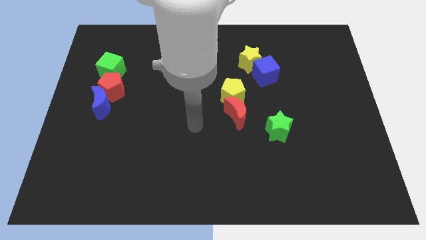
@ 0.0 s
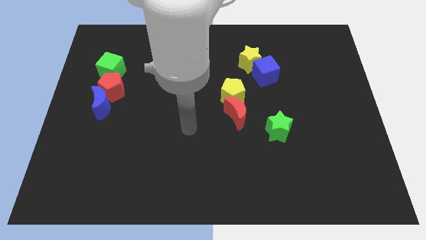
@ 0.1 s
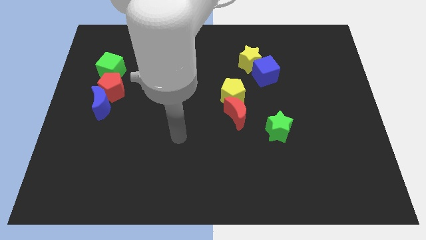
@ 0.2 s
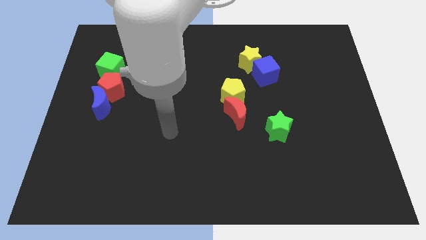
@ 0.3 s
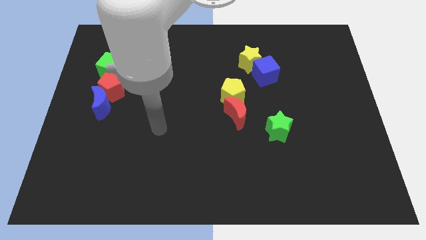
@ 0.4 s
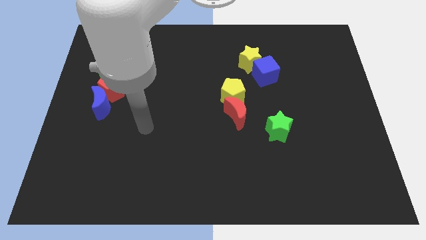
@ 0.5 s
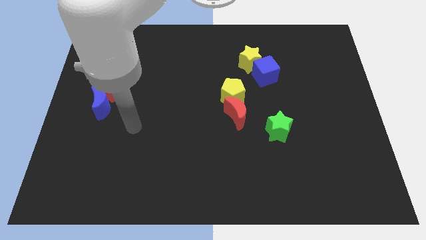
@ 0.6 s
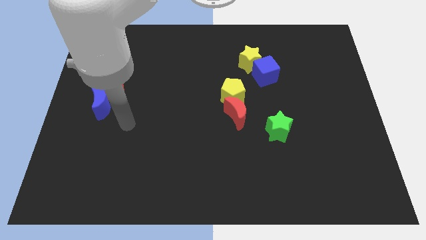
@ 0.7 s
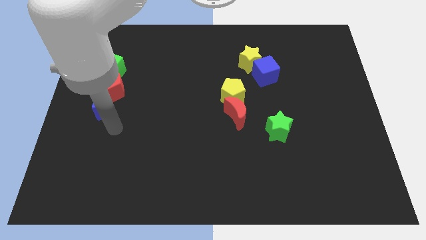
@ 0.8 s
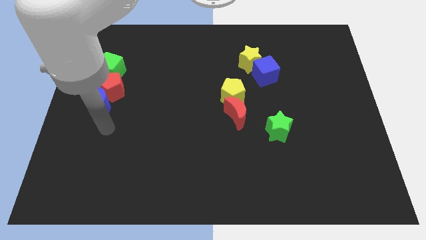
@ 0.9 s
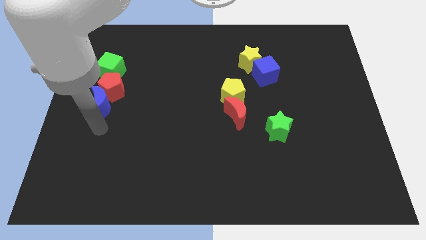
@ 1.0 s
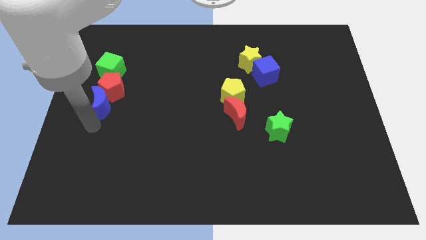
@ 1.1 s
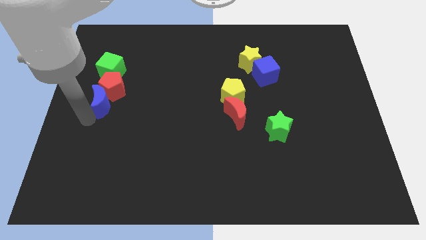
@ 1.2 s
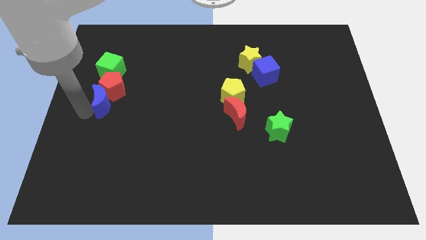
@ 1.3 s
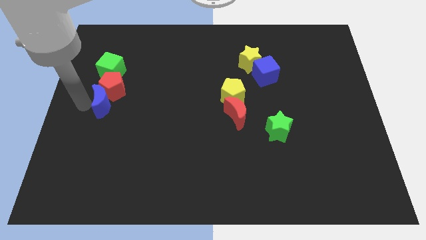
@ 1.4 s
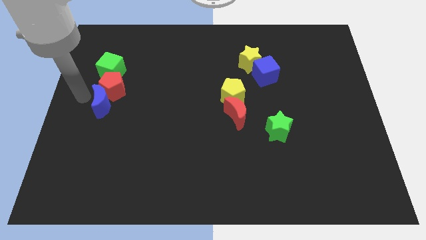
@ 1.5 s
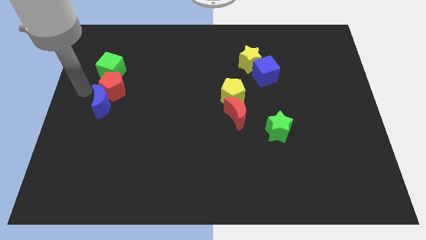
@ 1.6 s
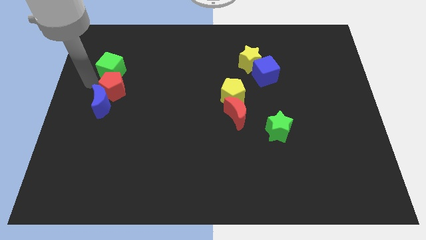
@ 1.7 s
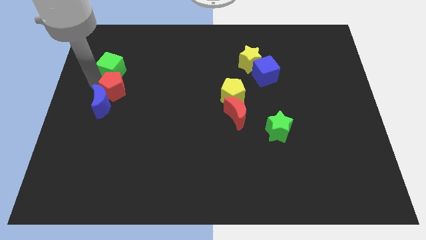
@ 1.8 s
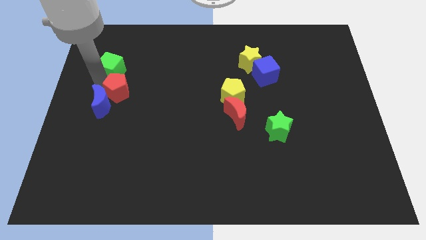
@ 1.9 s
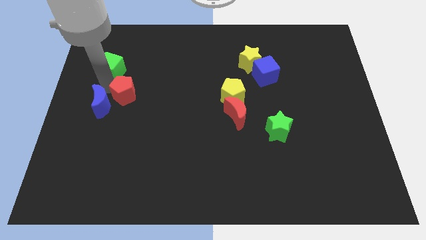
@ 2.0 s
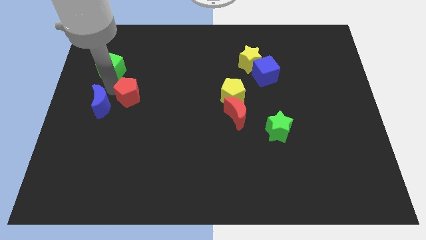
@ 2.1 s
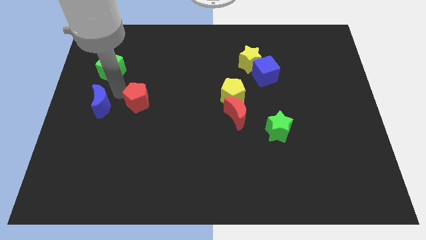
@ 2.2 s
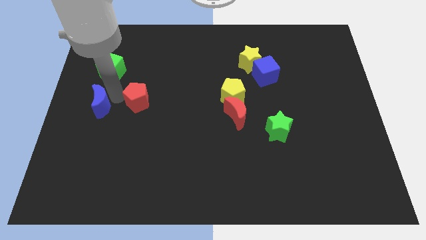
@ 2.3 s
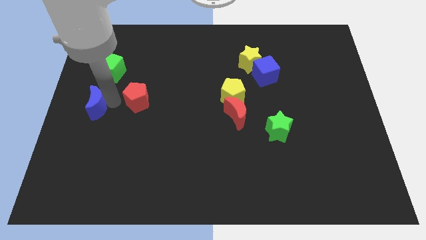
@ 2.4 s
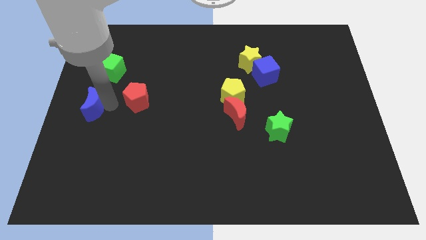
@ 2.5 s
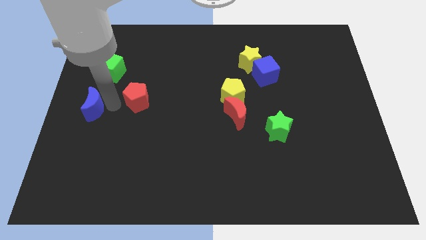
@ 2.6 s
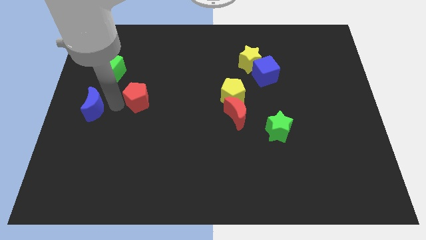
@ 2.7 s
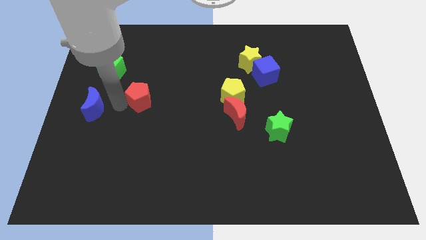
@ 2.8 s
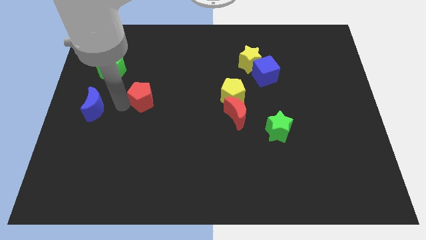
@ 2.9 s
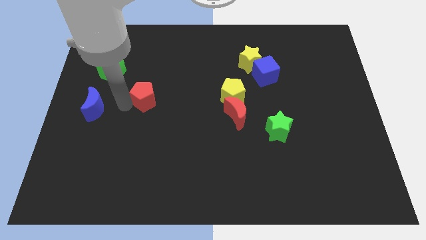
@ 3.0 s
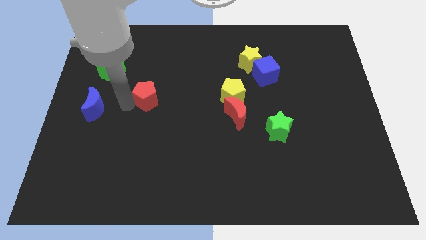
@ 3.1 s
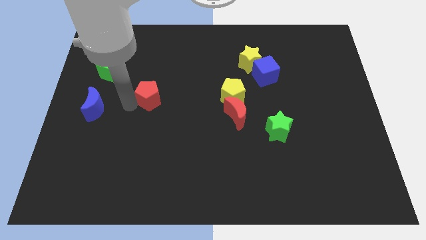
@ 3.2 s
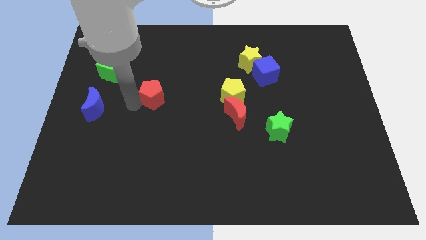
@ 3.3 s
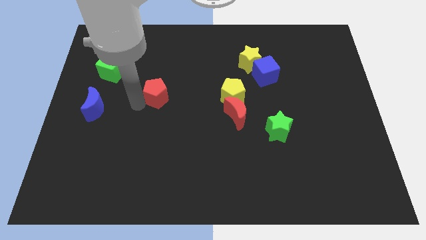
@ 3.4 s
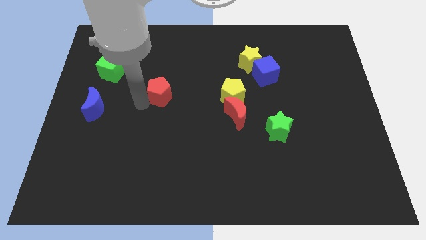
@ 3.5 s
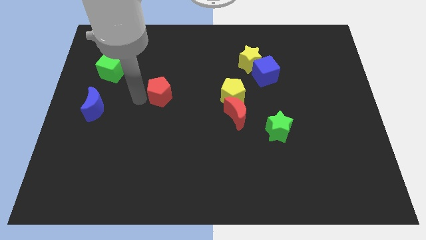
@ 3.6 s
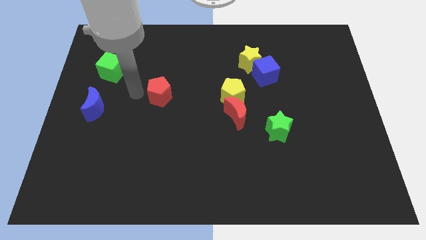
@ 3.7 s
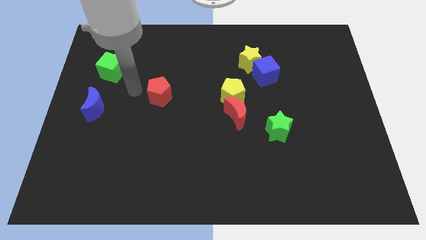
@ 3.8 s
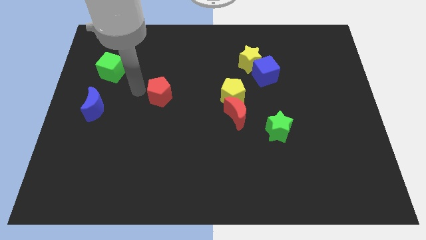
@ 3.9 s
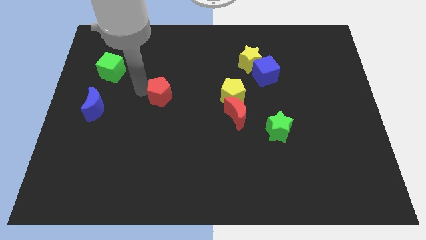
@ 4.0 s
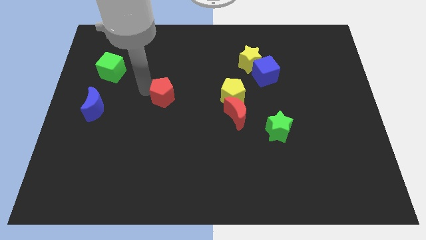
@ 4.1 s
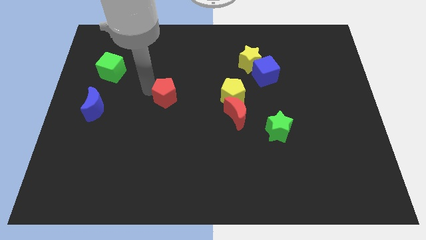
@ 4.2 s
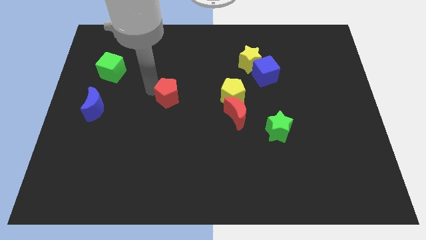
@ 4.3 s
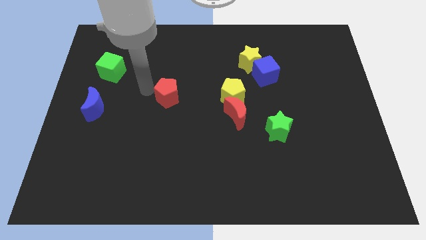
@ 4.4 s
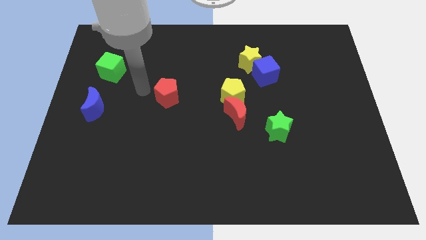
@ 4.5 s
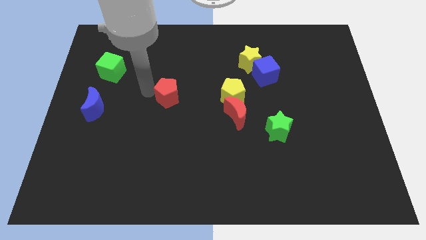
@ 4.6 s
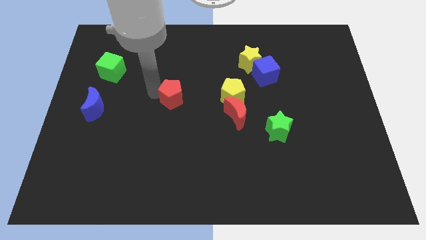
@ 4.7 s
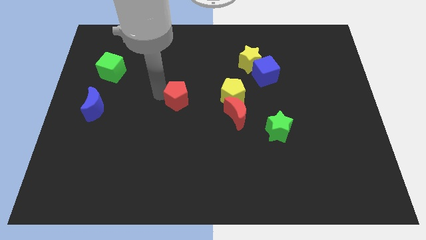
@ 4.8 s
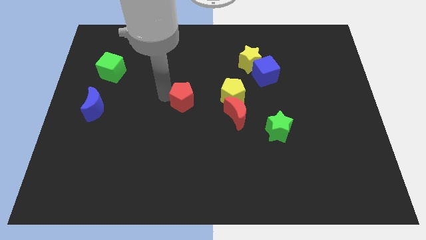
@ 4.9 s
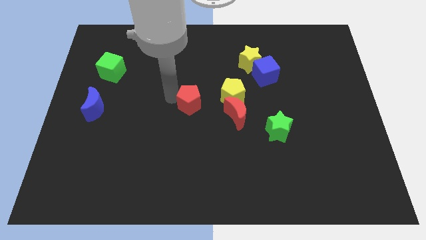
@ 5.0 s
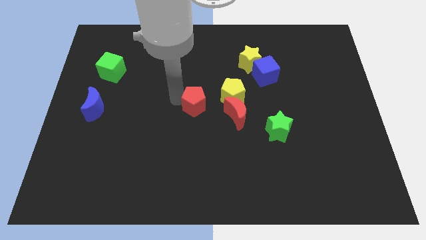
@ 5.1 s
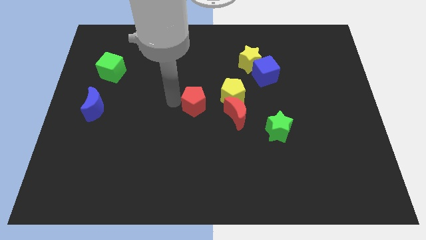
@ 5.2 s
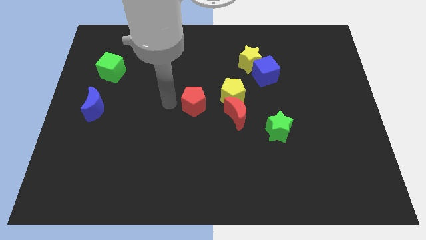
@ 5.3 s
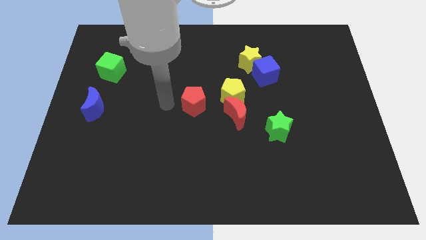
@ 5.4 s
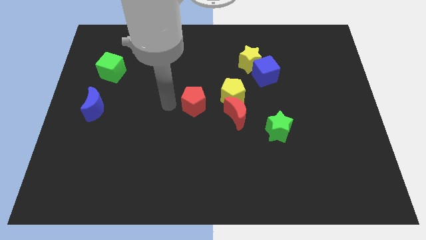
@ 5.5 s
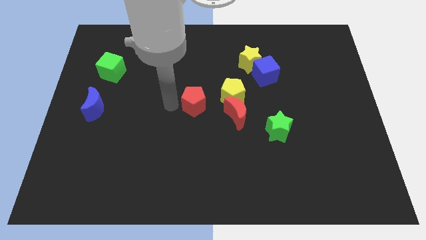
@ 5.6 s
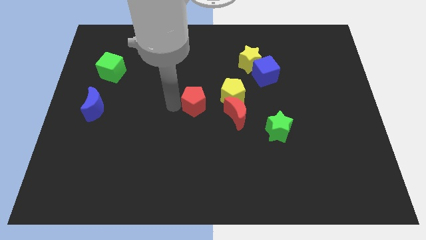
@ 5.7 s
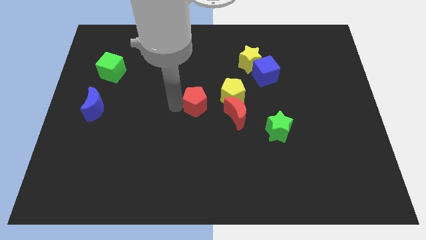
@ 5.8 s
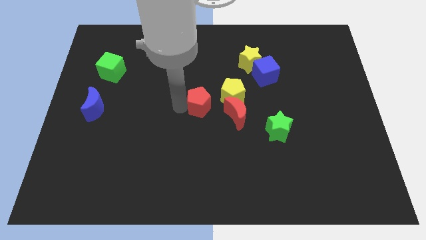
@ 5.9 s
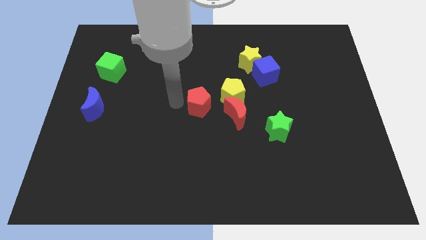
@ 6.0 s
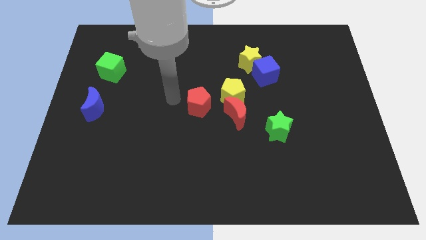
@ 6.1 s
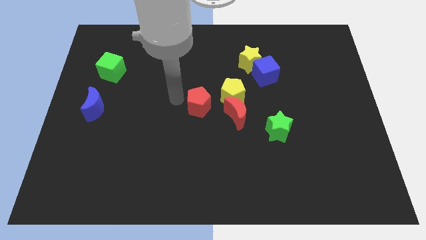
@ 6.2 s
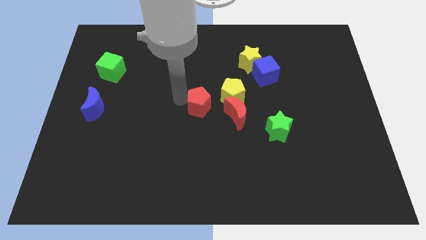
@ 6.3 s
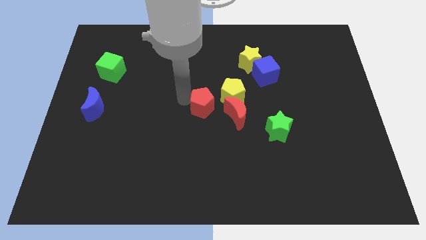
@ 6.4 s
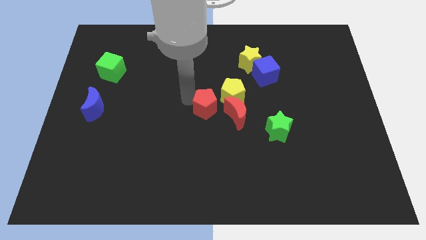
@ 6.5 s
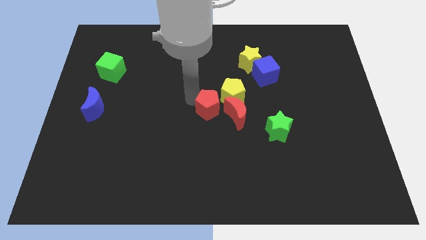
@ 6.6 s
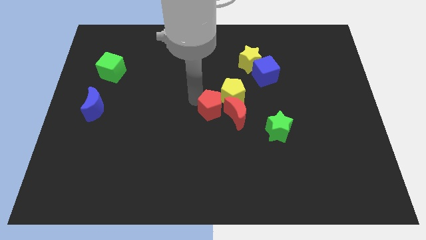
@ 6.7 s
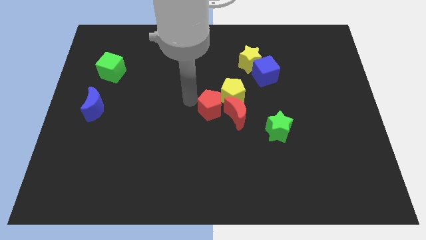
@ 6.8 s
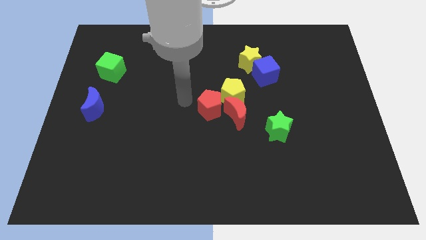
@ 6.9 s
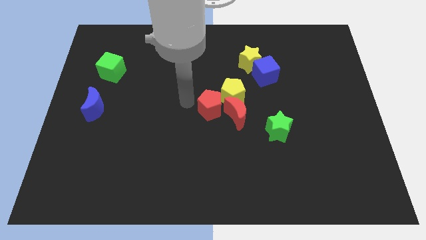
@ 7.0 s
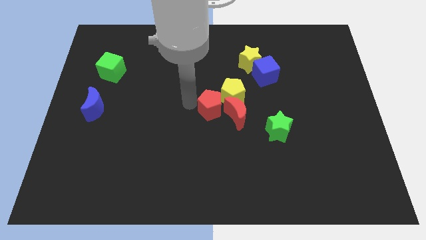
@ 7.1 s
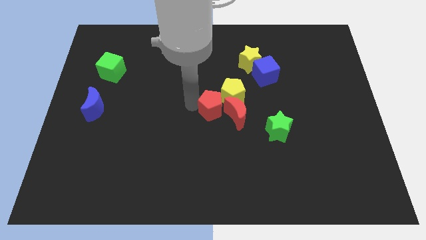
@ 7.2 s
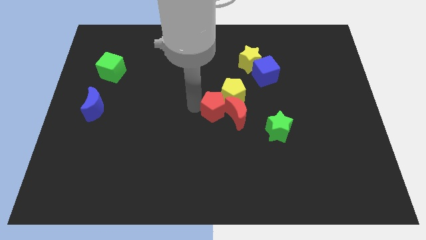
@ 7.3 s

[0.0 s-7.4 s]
push the red pentagon close to the red moon
